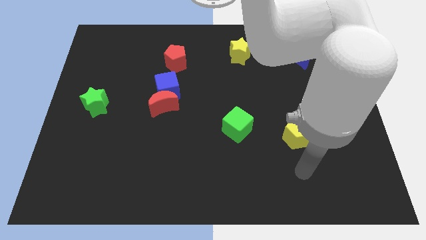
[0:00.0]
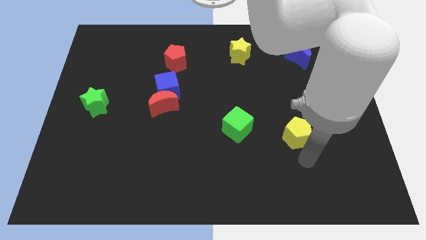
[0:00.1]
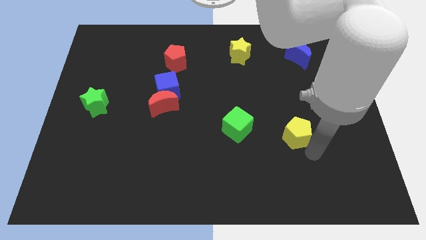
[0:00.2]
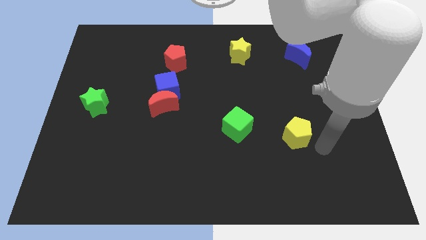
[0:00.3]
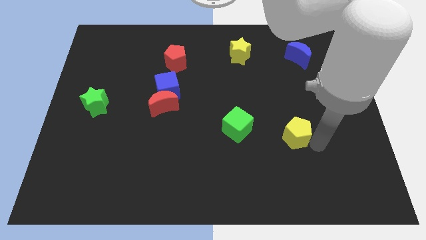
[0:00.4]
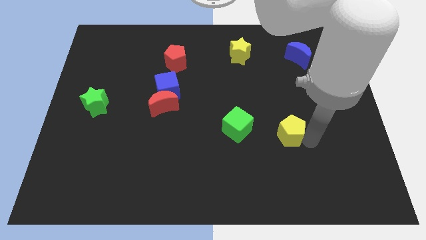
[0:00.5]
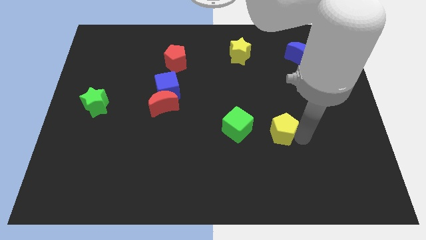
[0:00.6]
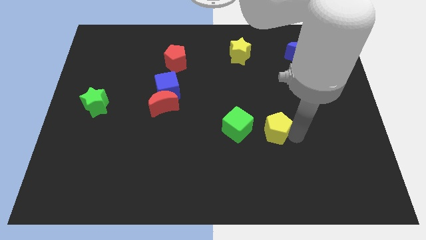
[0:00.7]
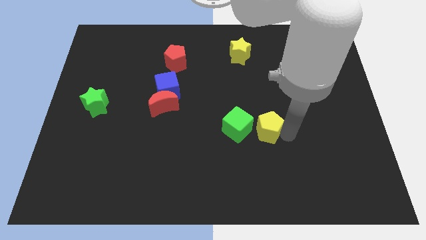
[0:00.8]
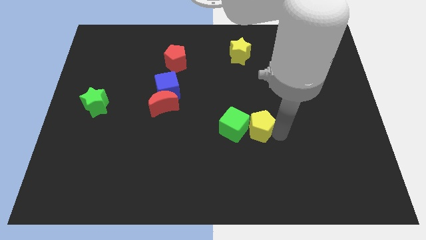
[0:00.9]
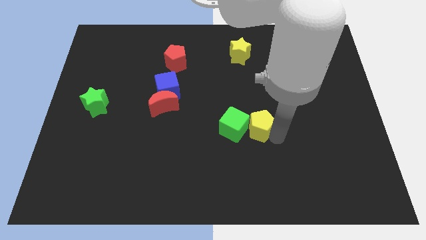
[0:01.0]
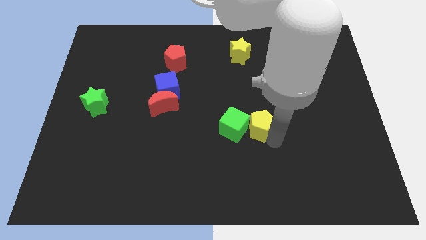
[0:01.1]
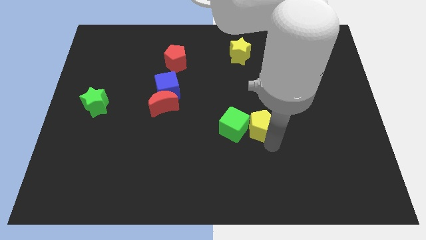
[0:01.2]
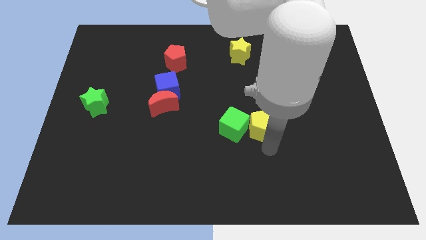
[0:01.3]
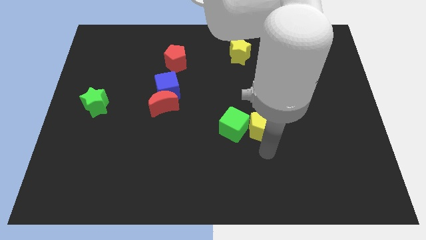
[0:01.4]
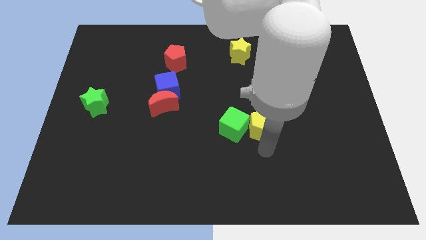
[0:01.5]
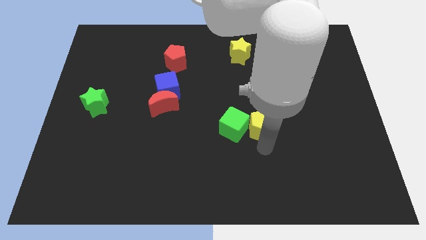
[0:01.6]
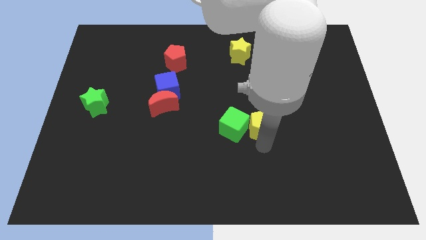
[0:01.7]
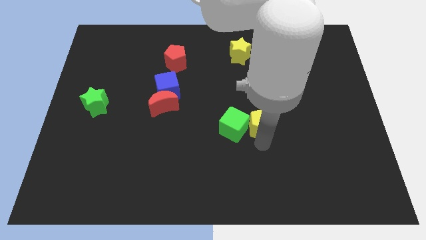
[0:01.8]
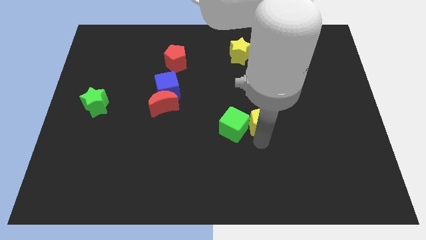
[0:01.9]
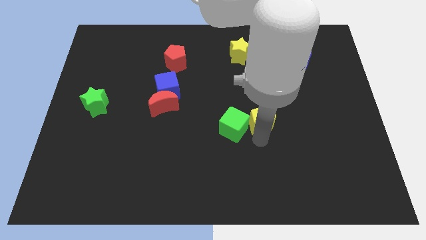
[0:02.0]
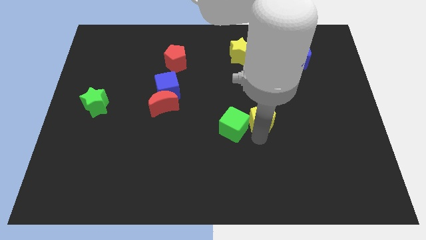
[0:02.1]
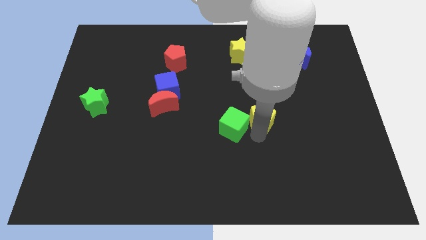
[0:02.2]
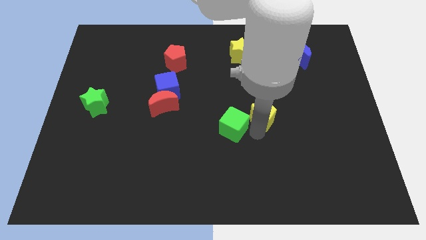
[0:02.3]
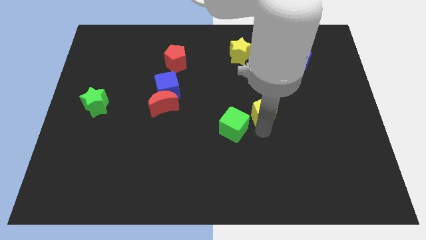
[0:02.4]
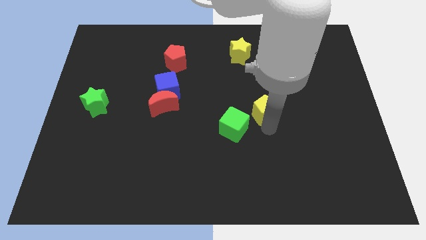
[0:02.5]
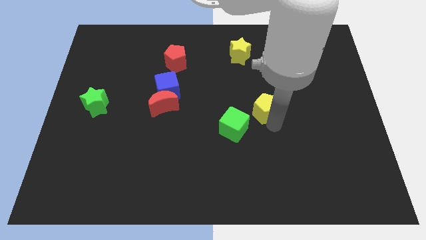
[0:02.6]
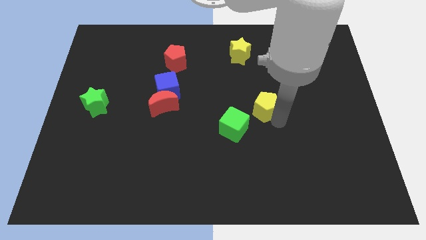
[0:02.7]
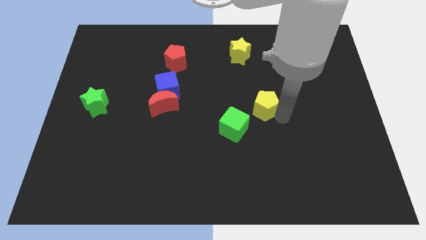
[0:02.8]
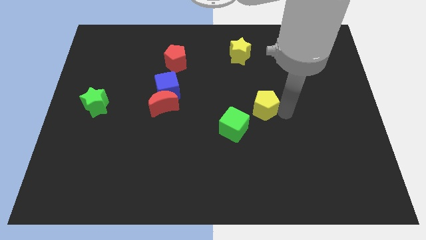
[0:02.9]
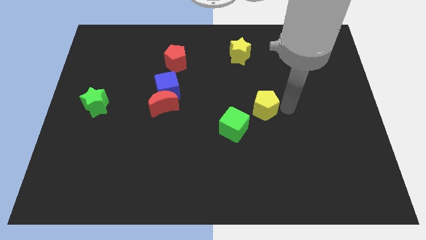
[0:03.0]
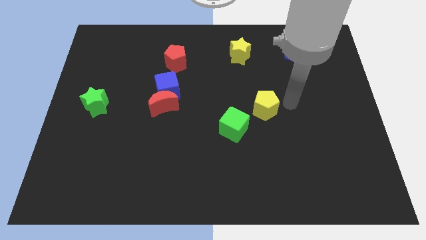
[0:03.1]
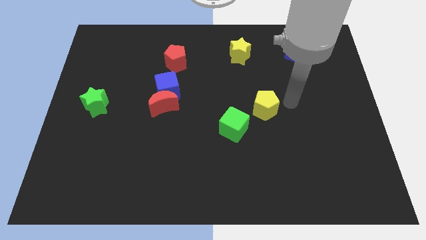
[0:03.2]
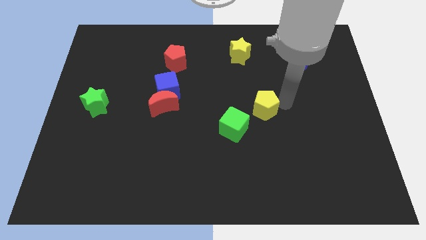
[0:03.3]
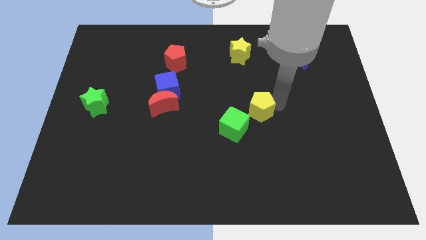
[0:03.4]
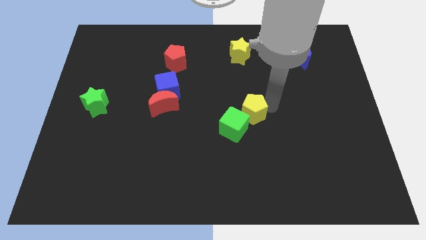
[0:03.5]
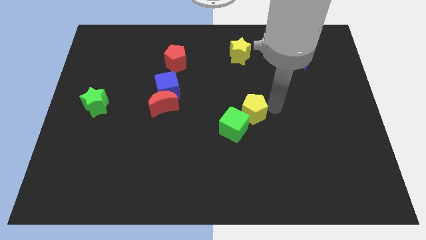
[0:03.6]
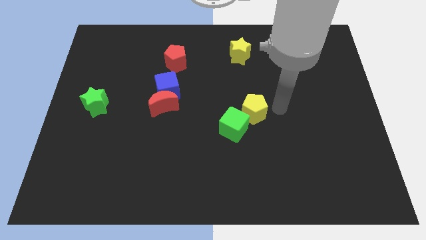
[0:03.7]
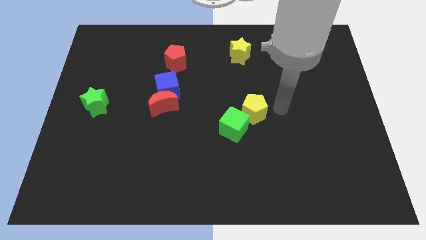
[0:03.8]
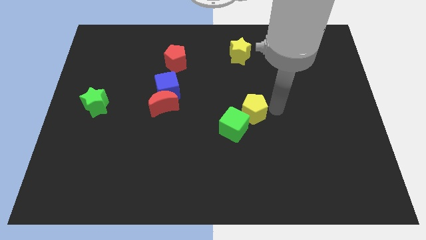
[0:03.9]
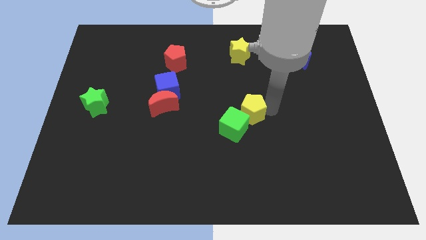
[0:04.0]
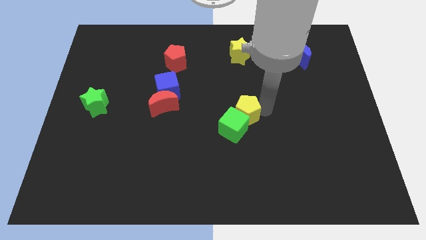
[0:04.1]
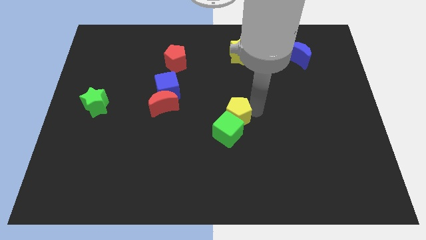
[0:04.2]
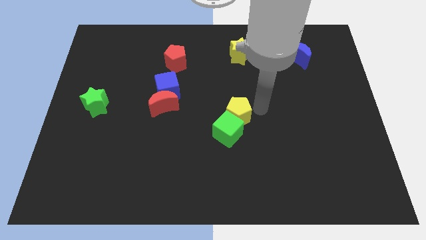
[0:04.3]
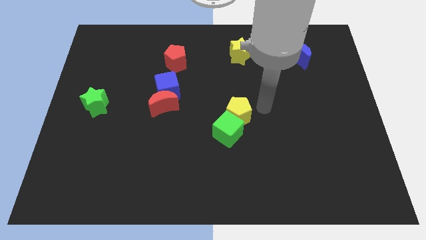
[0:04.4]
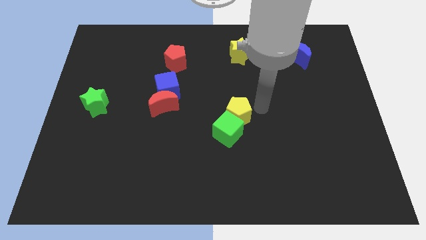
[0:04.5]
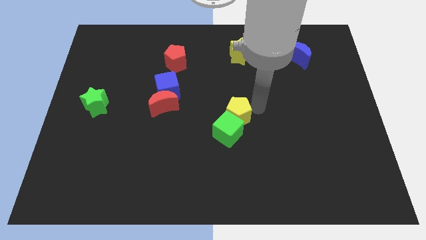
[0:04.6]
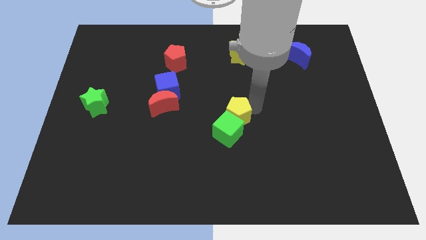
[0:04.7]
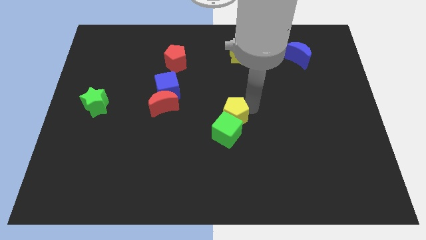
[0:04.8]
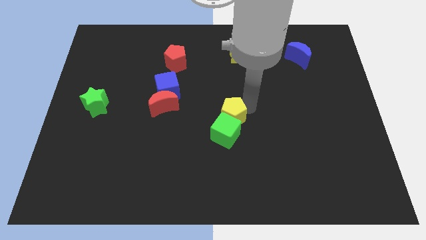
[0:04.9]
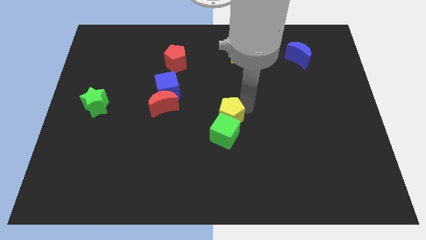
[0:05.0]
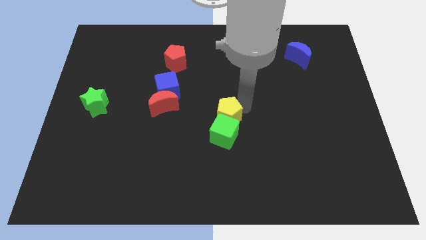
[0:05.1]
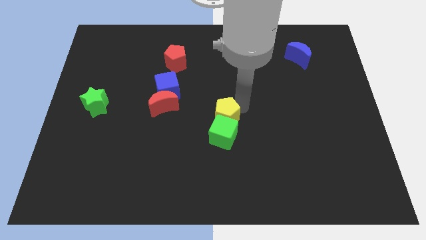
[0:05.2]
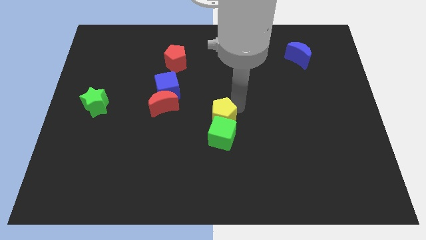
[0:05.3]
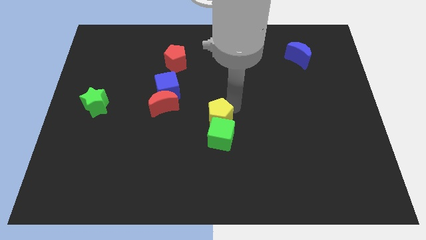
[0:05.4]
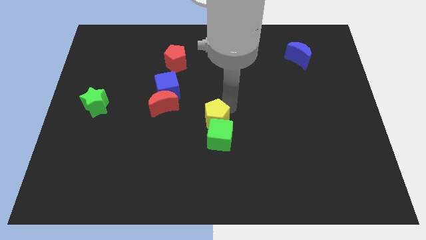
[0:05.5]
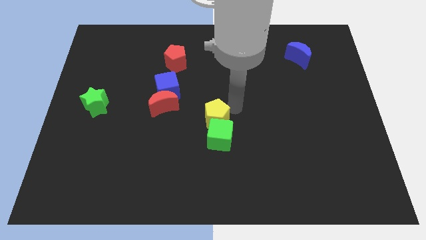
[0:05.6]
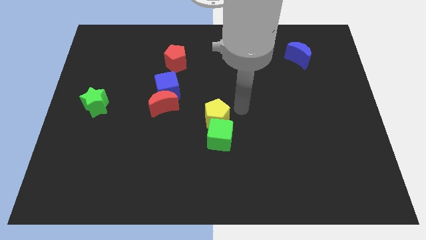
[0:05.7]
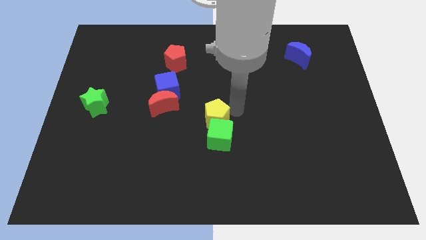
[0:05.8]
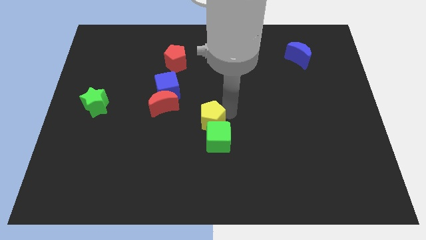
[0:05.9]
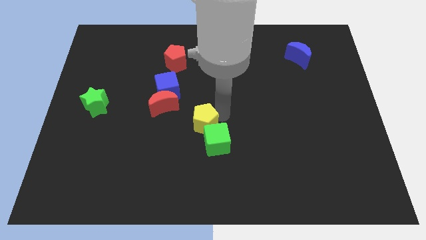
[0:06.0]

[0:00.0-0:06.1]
slide the yellow pentagon to the left

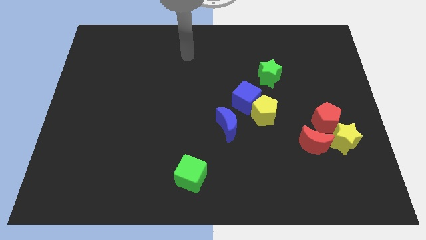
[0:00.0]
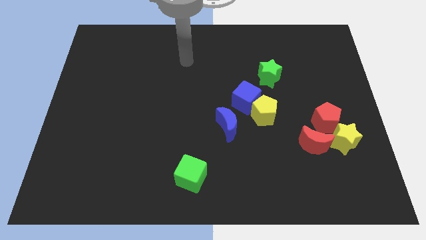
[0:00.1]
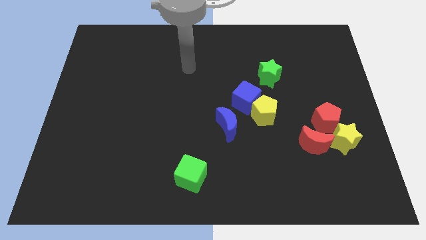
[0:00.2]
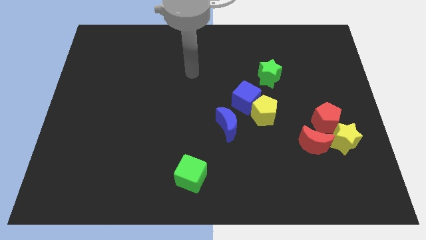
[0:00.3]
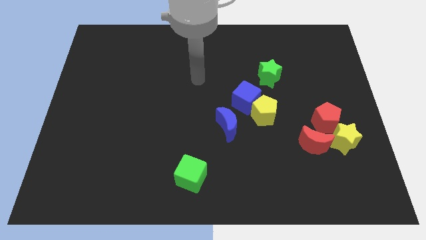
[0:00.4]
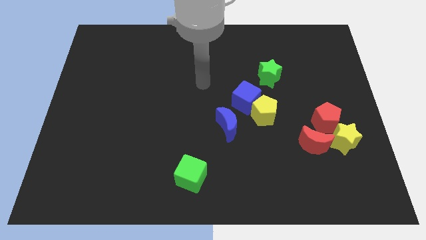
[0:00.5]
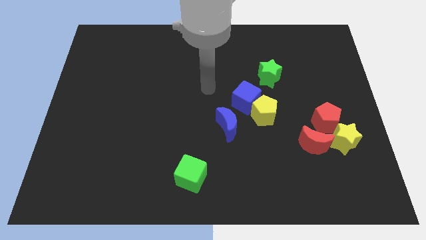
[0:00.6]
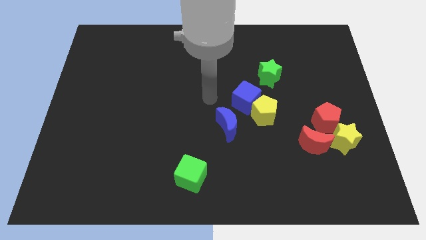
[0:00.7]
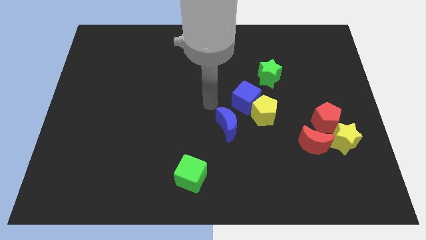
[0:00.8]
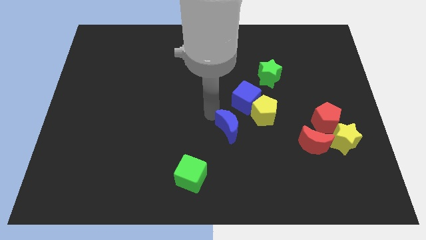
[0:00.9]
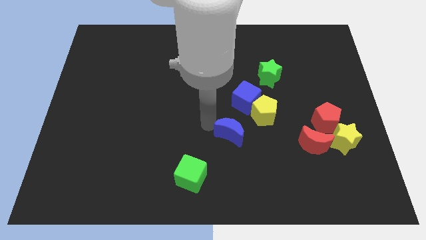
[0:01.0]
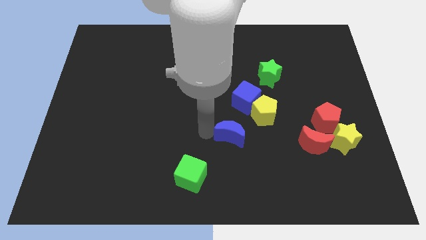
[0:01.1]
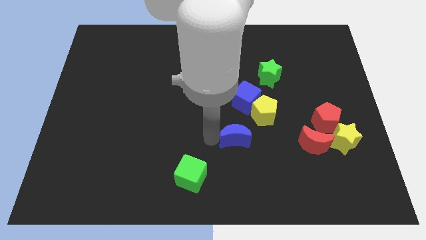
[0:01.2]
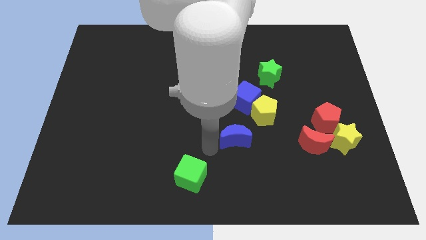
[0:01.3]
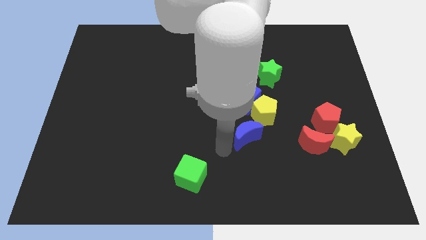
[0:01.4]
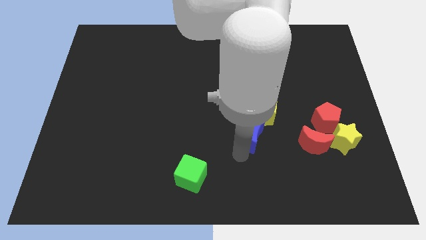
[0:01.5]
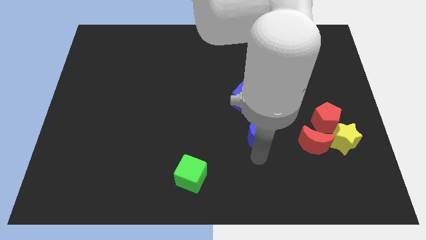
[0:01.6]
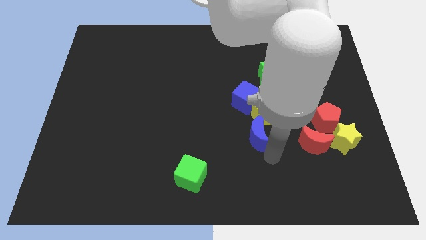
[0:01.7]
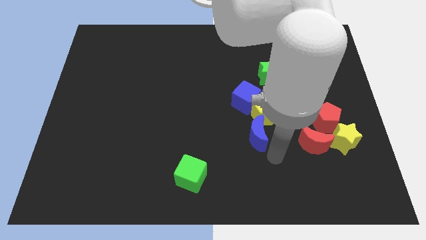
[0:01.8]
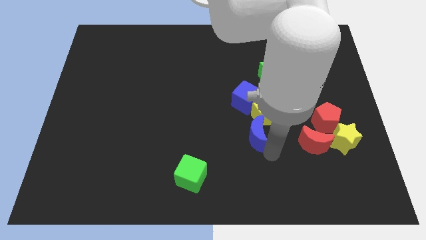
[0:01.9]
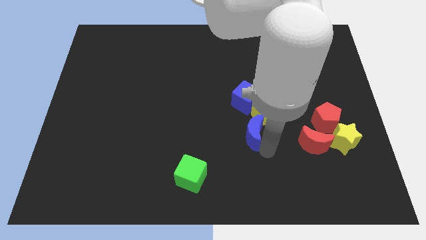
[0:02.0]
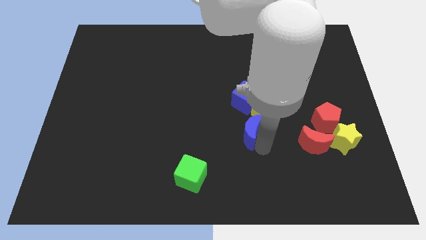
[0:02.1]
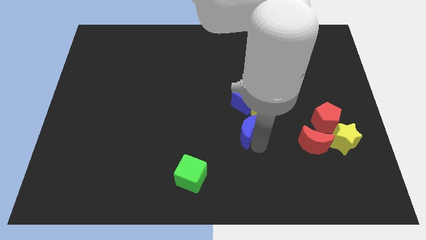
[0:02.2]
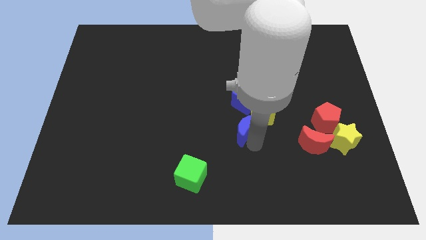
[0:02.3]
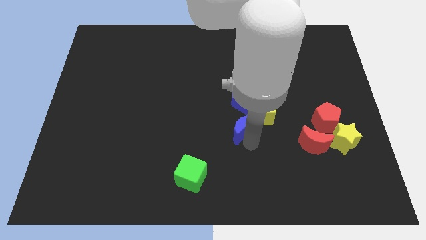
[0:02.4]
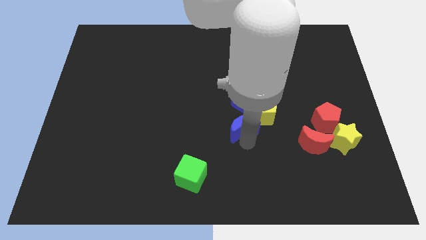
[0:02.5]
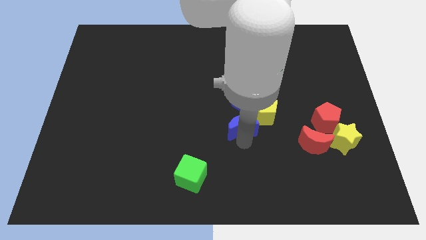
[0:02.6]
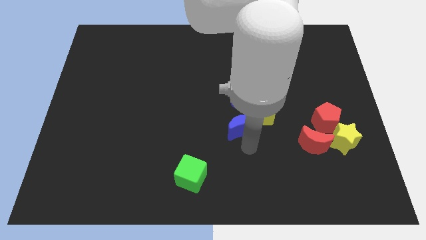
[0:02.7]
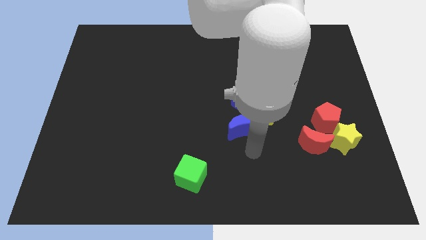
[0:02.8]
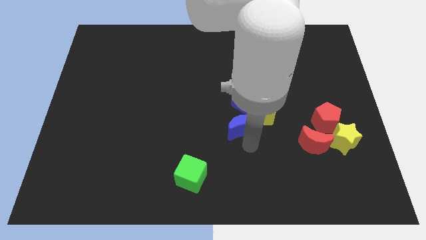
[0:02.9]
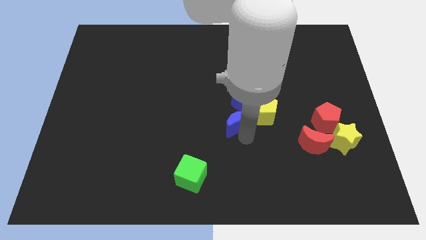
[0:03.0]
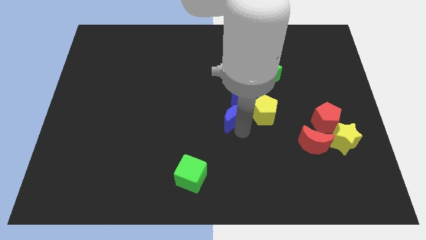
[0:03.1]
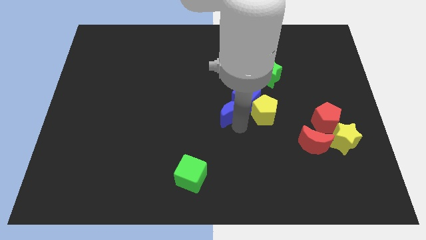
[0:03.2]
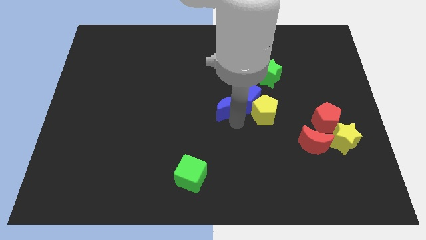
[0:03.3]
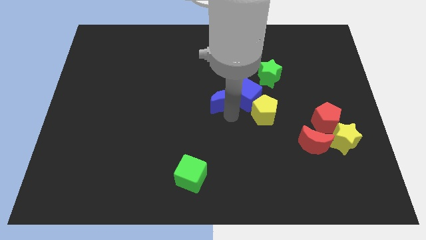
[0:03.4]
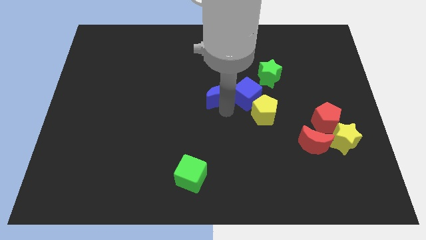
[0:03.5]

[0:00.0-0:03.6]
slightly push the blue moon up
